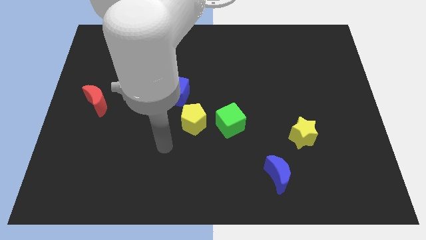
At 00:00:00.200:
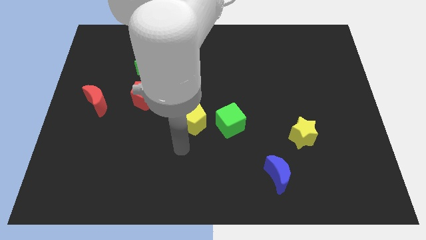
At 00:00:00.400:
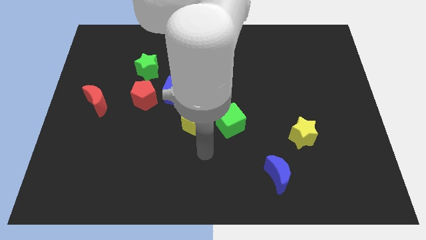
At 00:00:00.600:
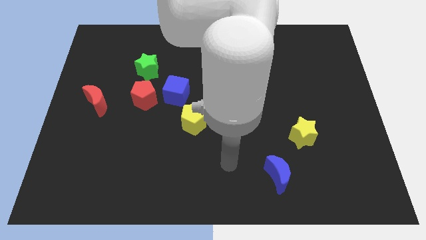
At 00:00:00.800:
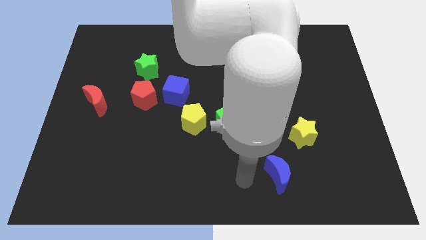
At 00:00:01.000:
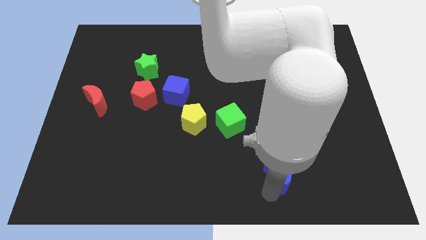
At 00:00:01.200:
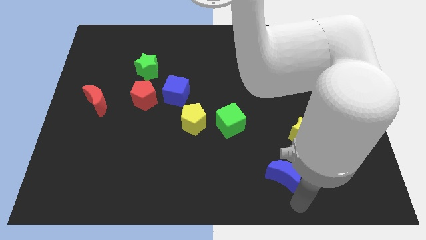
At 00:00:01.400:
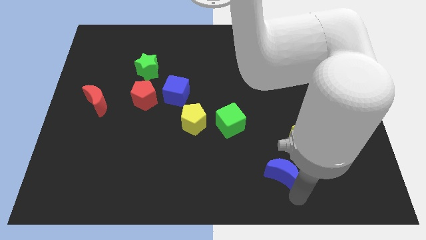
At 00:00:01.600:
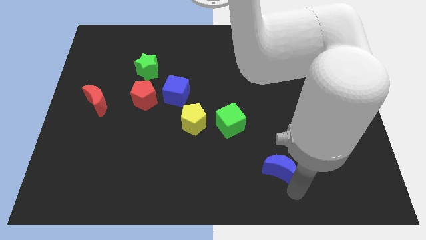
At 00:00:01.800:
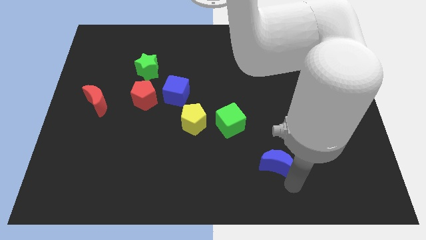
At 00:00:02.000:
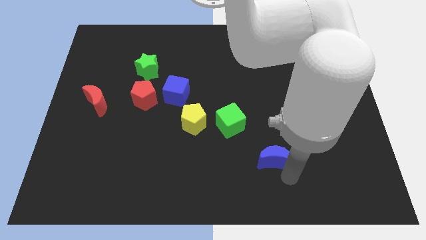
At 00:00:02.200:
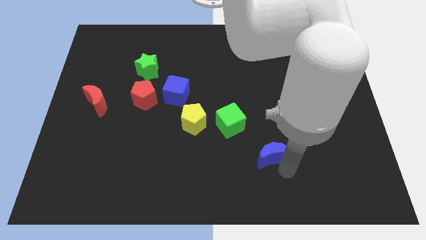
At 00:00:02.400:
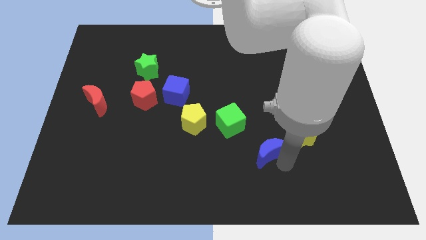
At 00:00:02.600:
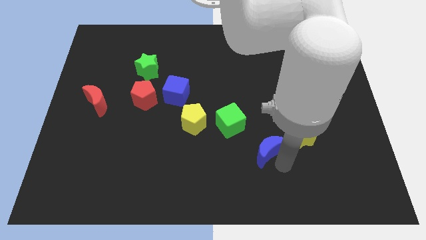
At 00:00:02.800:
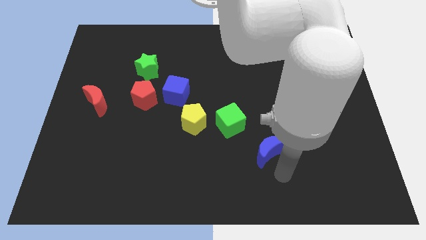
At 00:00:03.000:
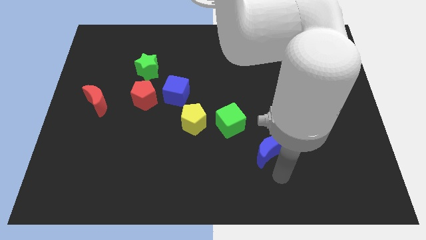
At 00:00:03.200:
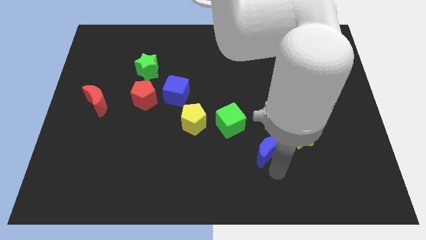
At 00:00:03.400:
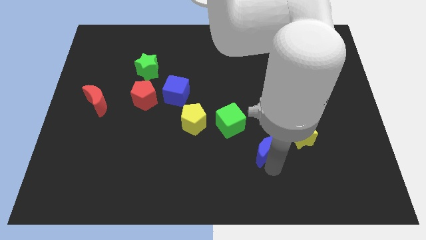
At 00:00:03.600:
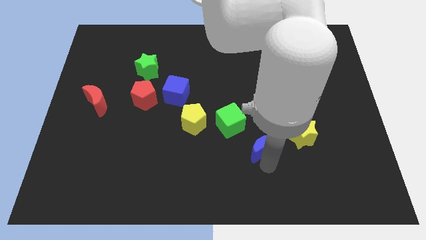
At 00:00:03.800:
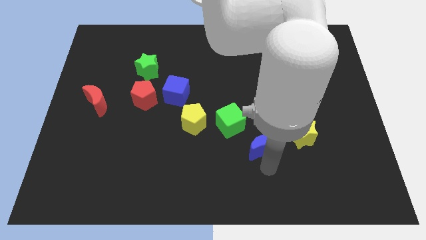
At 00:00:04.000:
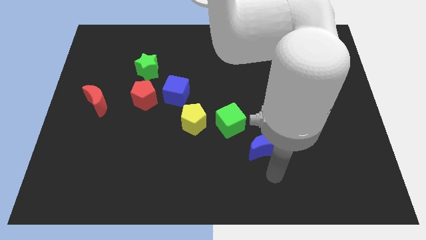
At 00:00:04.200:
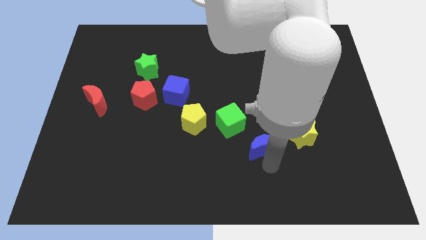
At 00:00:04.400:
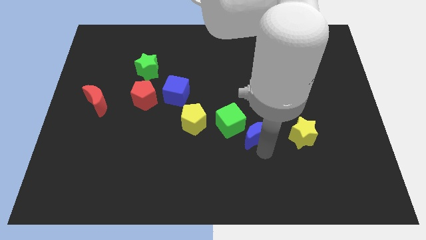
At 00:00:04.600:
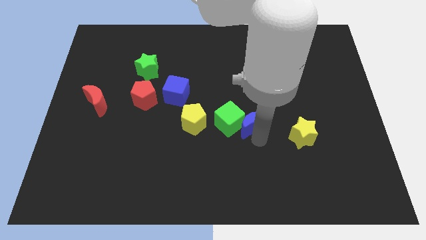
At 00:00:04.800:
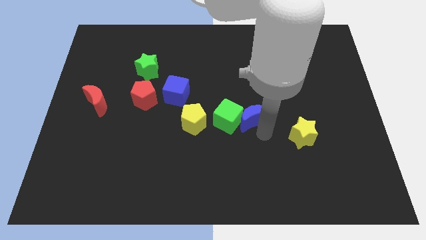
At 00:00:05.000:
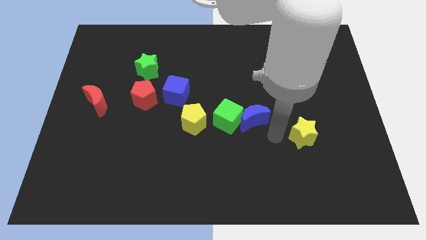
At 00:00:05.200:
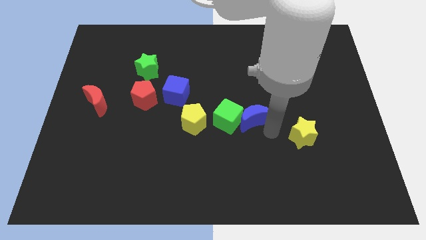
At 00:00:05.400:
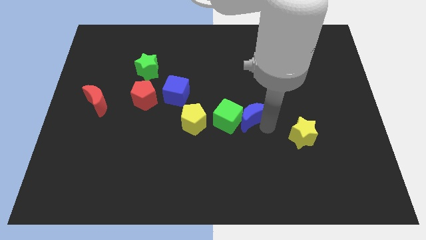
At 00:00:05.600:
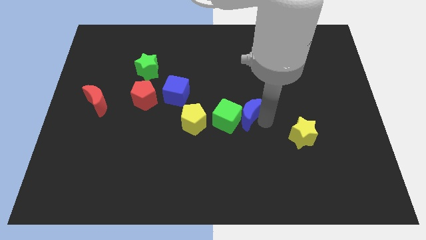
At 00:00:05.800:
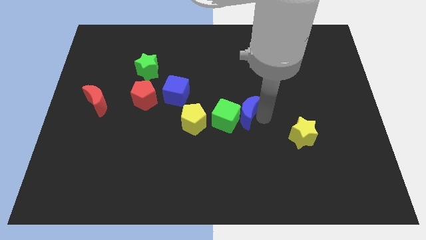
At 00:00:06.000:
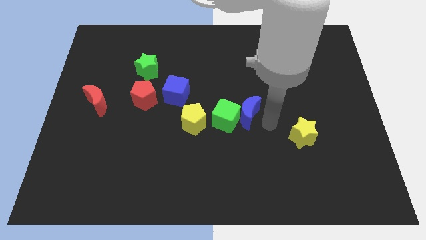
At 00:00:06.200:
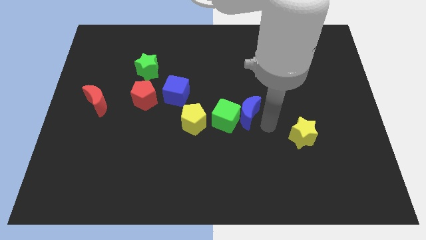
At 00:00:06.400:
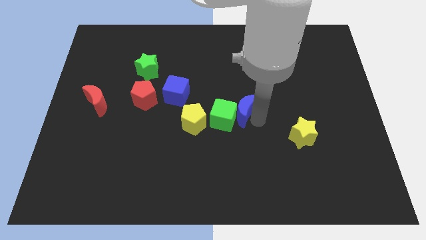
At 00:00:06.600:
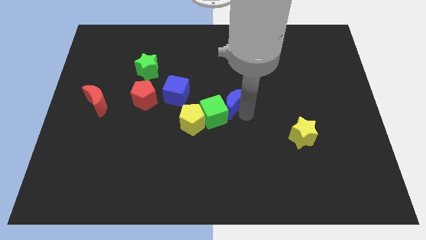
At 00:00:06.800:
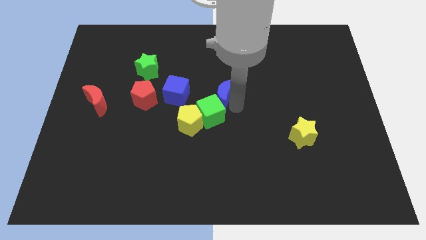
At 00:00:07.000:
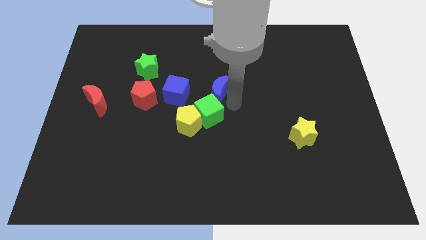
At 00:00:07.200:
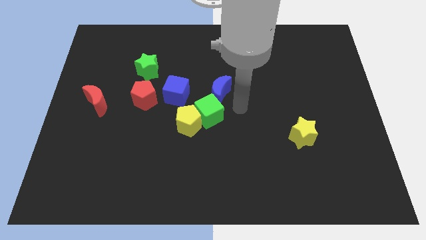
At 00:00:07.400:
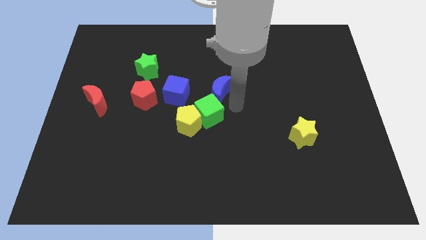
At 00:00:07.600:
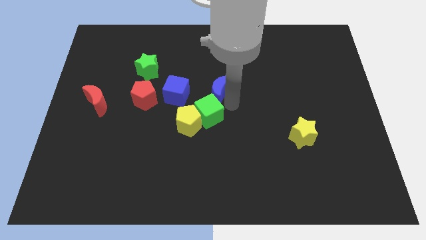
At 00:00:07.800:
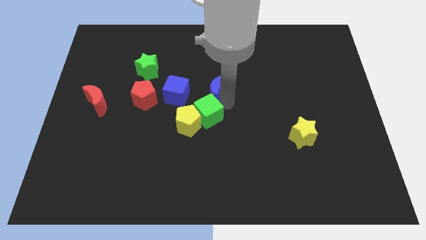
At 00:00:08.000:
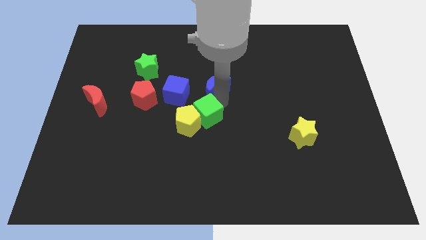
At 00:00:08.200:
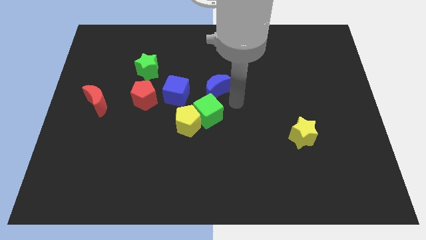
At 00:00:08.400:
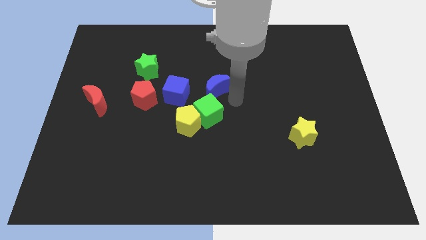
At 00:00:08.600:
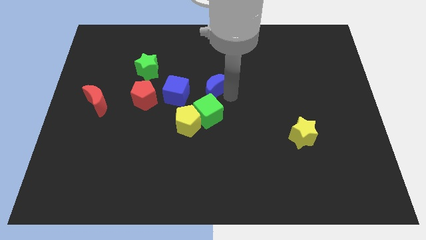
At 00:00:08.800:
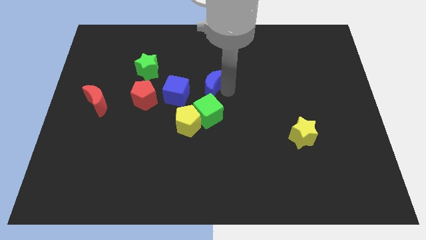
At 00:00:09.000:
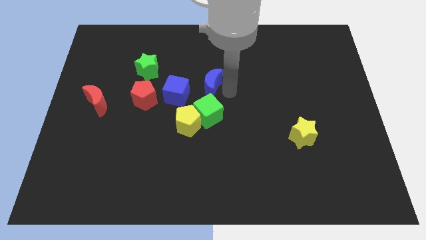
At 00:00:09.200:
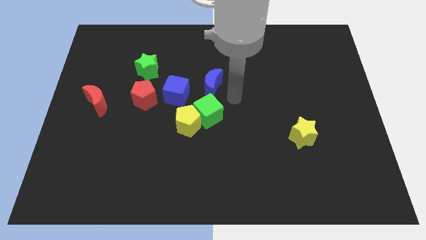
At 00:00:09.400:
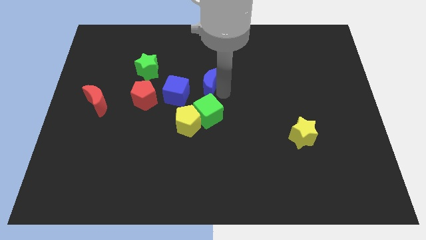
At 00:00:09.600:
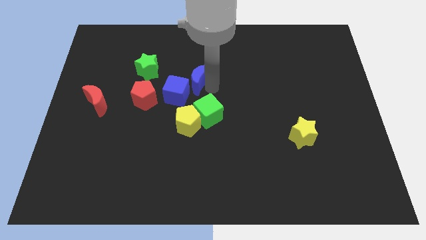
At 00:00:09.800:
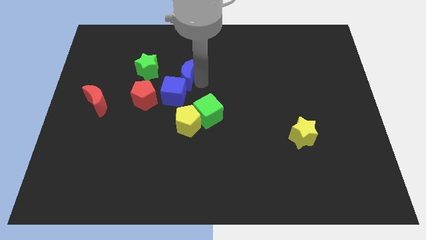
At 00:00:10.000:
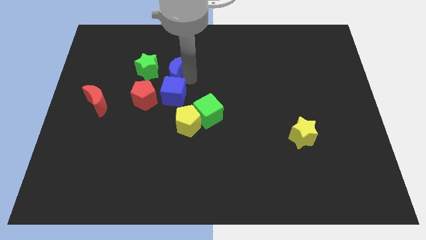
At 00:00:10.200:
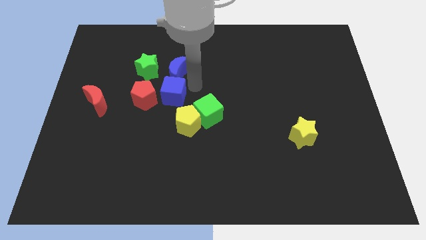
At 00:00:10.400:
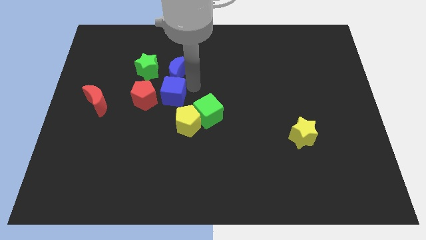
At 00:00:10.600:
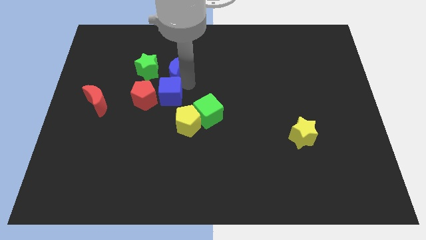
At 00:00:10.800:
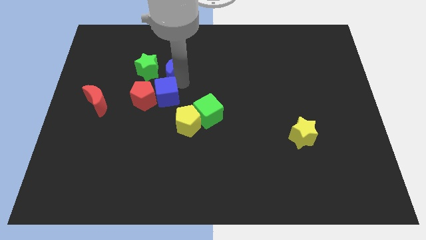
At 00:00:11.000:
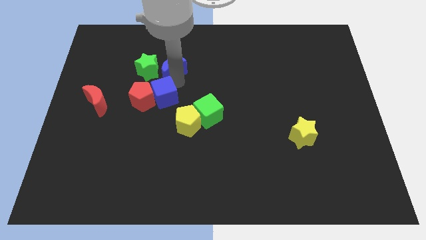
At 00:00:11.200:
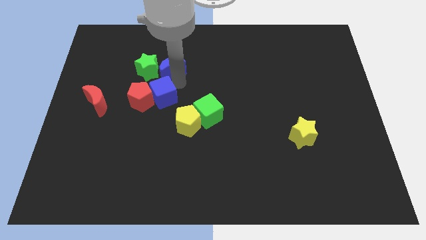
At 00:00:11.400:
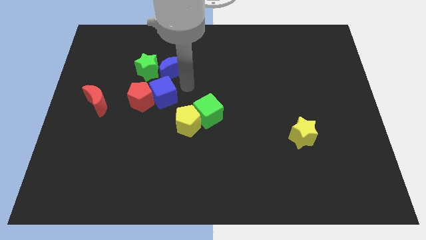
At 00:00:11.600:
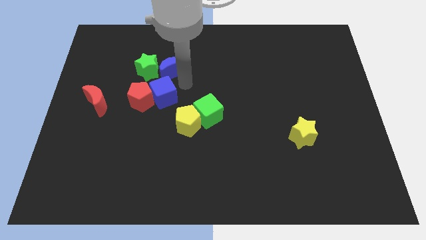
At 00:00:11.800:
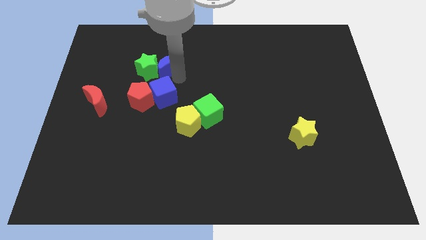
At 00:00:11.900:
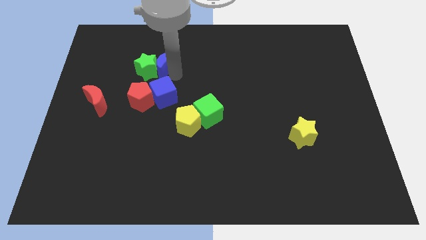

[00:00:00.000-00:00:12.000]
put the blue moon above the red pentagon
